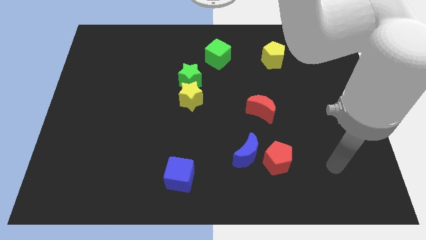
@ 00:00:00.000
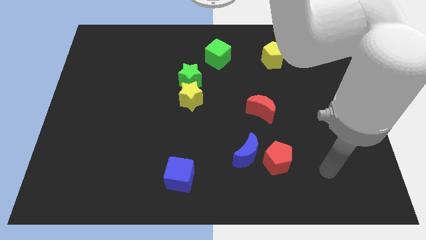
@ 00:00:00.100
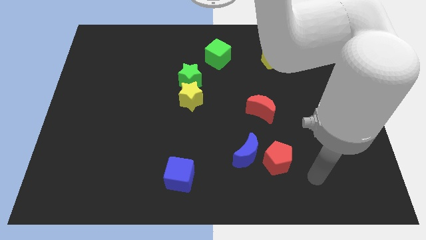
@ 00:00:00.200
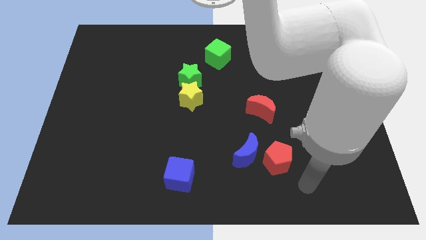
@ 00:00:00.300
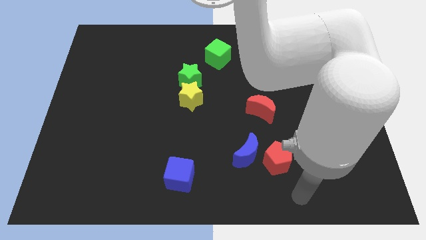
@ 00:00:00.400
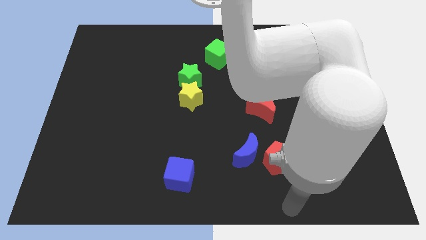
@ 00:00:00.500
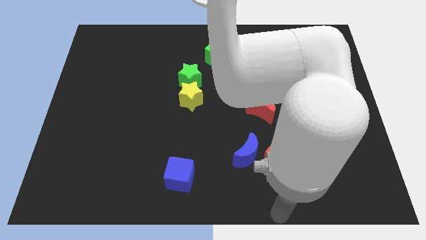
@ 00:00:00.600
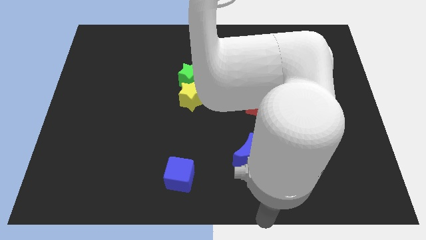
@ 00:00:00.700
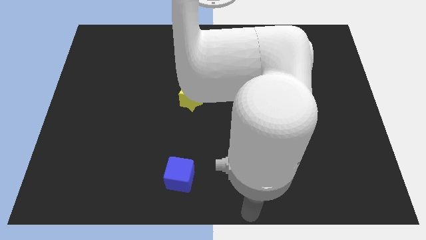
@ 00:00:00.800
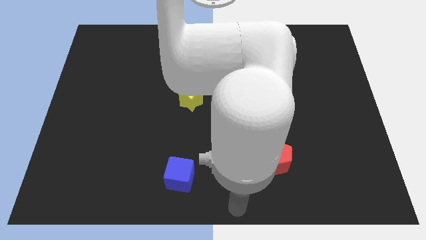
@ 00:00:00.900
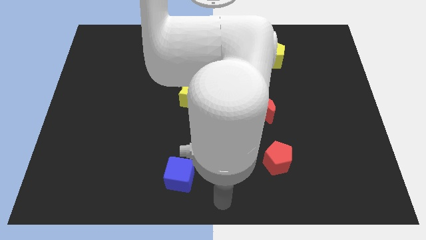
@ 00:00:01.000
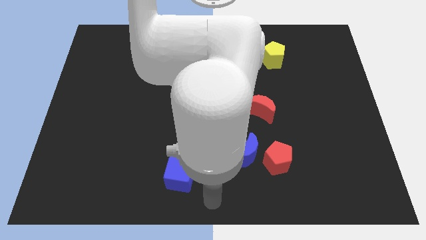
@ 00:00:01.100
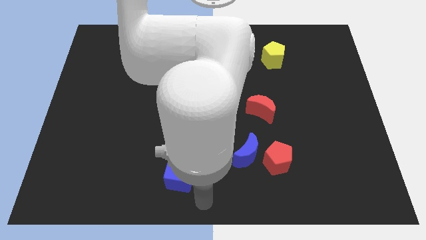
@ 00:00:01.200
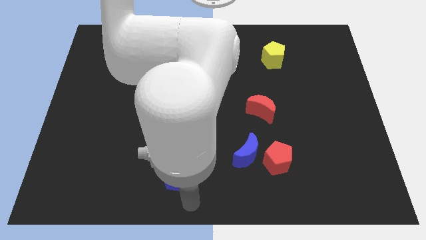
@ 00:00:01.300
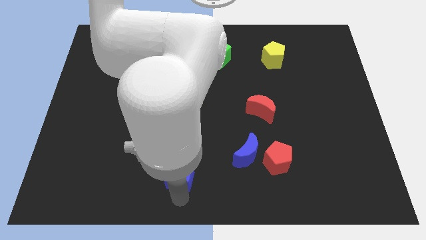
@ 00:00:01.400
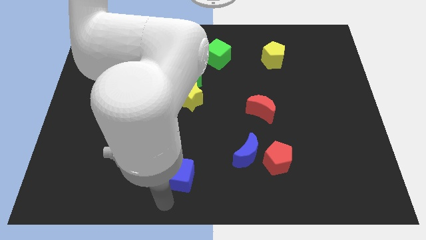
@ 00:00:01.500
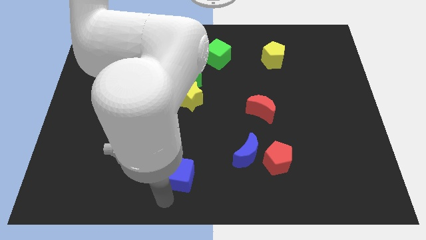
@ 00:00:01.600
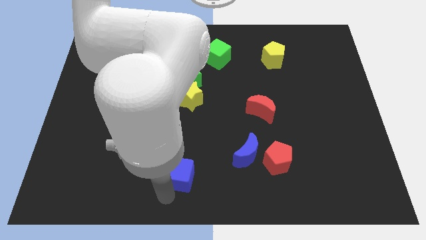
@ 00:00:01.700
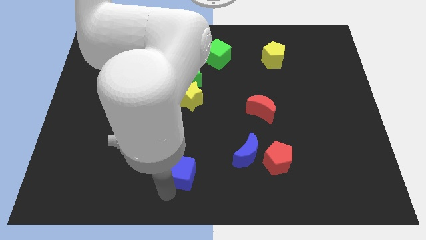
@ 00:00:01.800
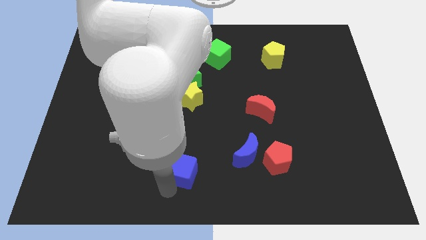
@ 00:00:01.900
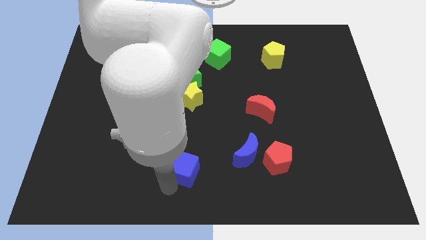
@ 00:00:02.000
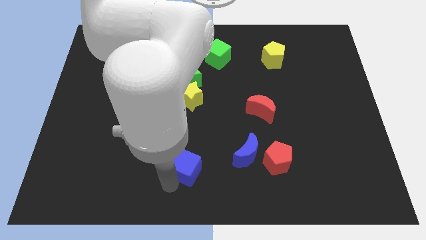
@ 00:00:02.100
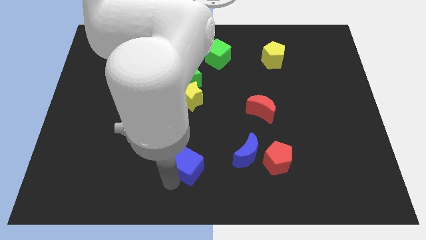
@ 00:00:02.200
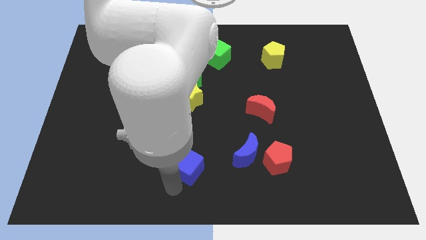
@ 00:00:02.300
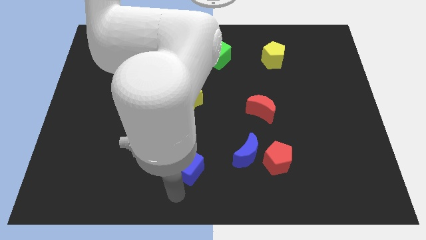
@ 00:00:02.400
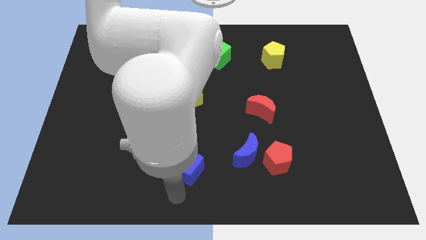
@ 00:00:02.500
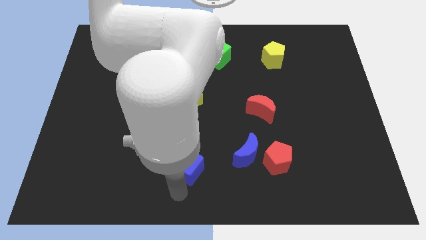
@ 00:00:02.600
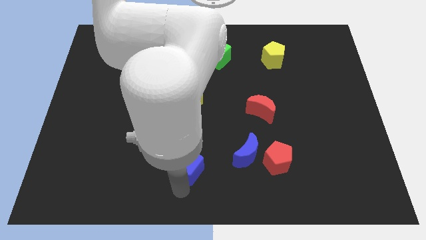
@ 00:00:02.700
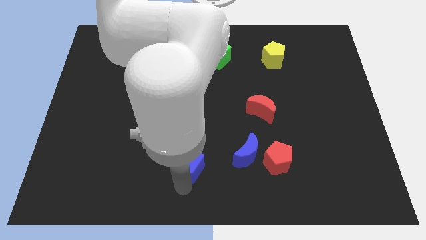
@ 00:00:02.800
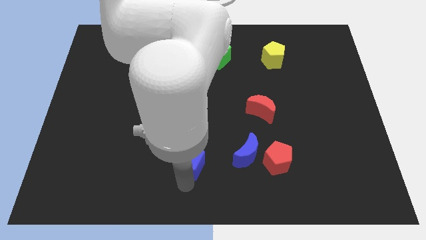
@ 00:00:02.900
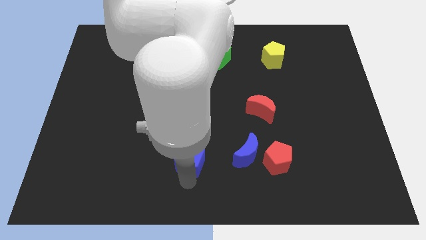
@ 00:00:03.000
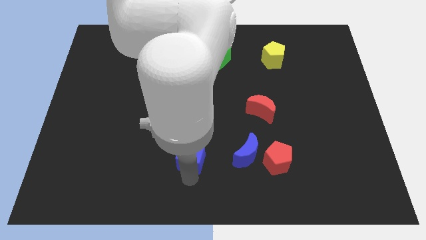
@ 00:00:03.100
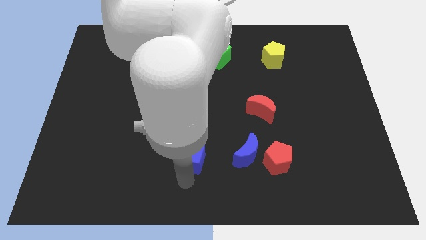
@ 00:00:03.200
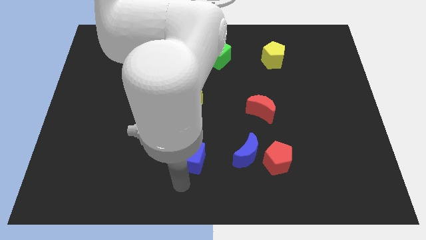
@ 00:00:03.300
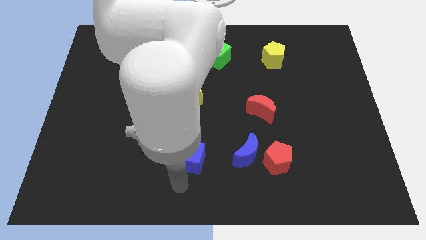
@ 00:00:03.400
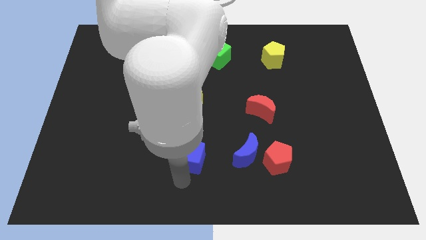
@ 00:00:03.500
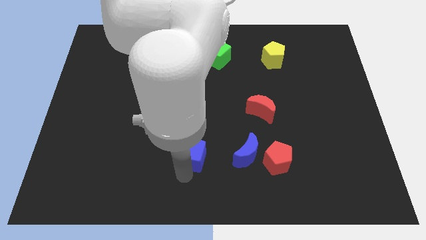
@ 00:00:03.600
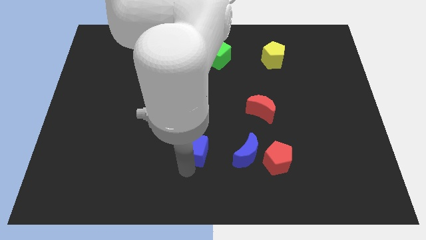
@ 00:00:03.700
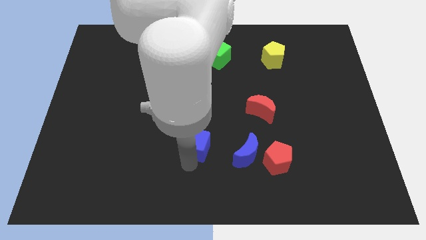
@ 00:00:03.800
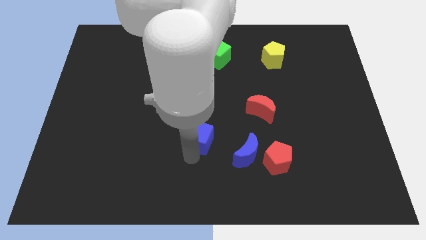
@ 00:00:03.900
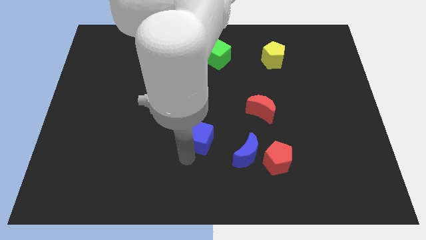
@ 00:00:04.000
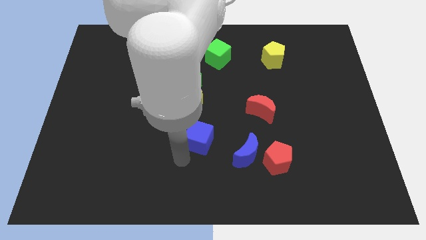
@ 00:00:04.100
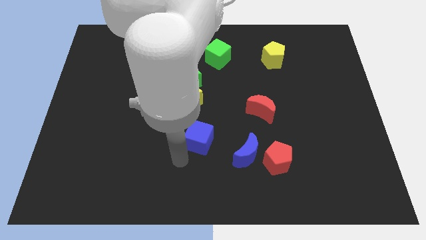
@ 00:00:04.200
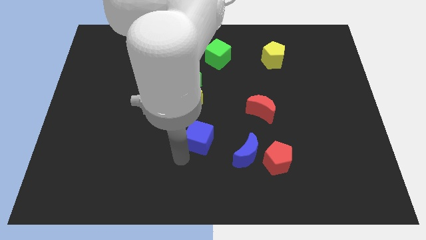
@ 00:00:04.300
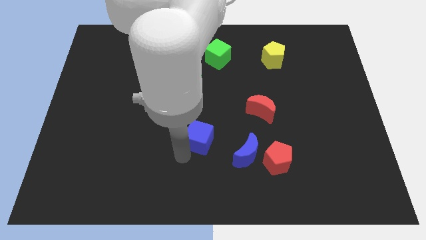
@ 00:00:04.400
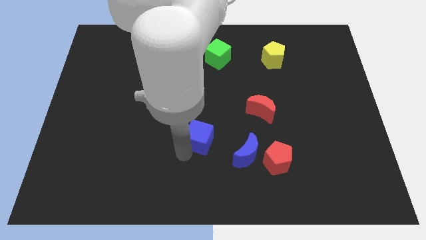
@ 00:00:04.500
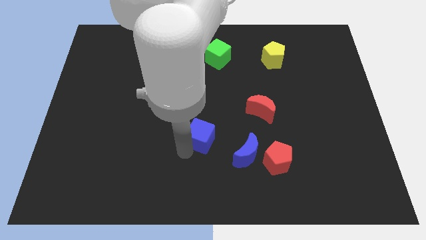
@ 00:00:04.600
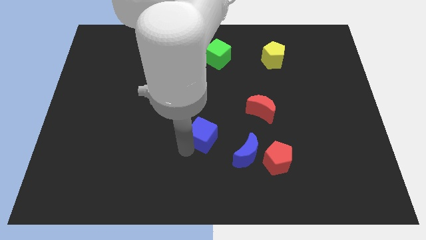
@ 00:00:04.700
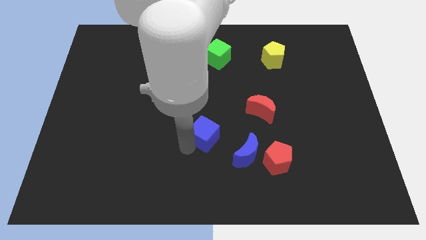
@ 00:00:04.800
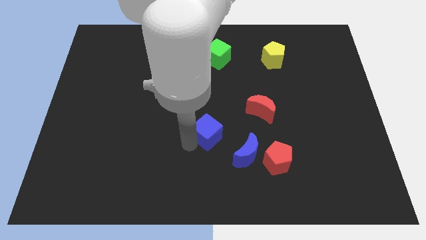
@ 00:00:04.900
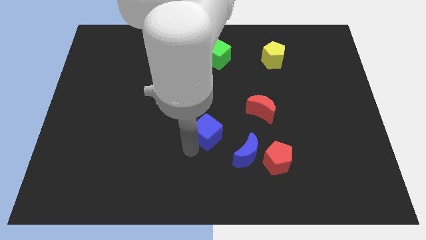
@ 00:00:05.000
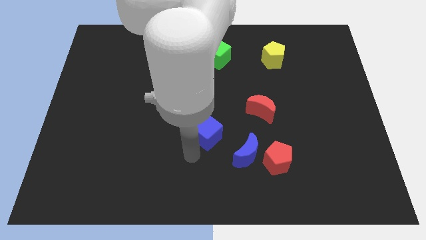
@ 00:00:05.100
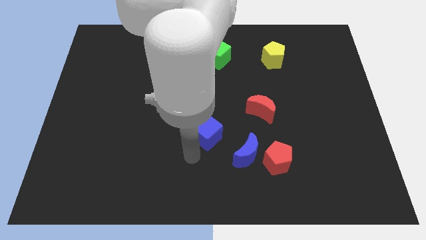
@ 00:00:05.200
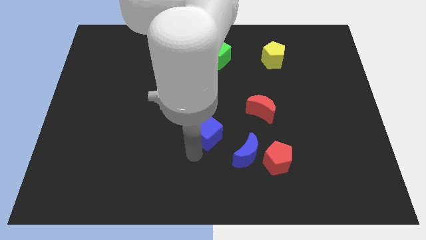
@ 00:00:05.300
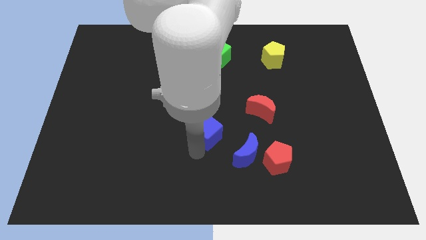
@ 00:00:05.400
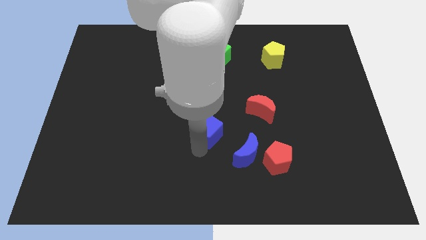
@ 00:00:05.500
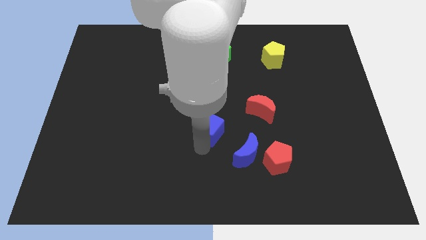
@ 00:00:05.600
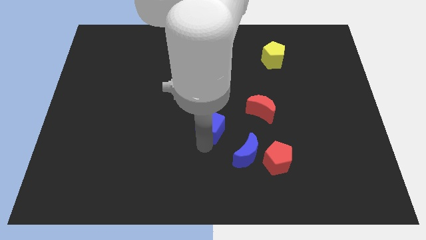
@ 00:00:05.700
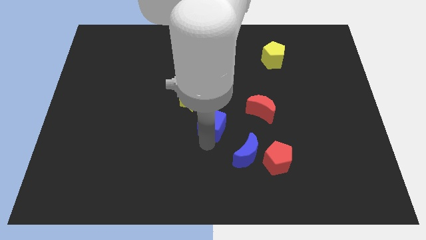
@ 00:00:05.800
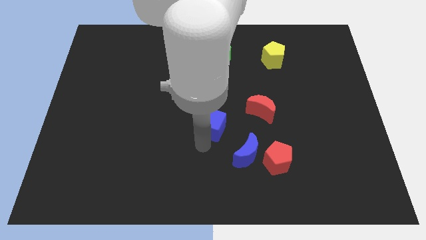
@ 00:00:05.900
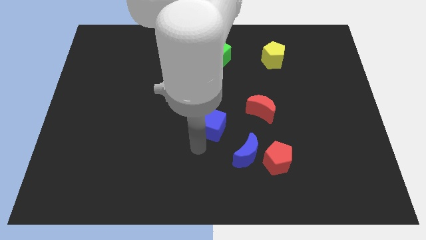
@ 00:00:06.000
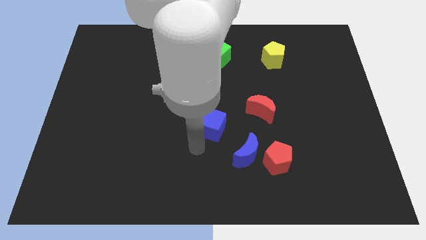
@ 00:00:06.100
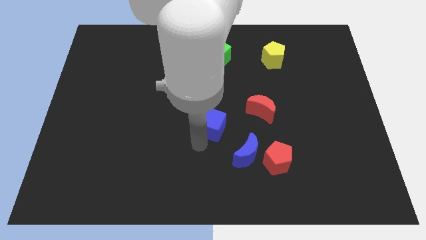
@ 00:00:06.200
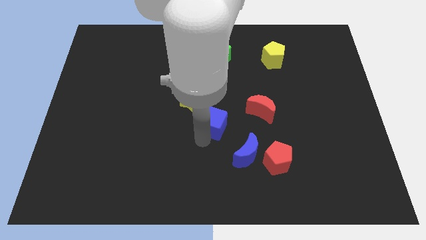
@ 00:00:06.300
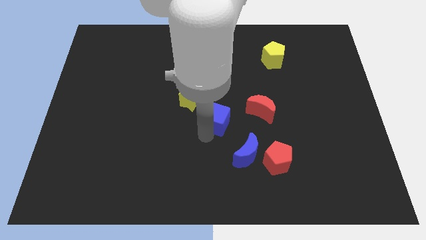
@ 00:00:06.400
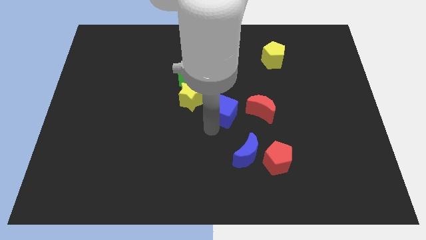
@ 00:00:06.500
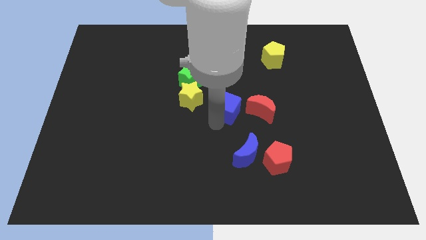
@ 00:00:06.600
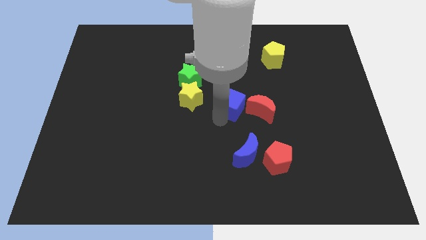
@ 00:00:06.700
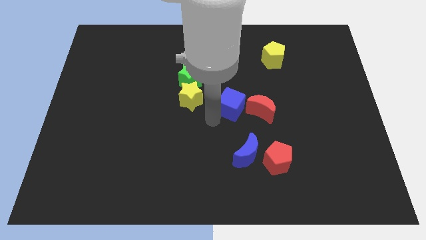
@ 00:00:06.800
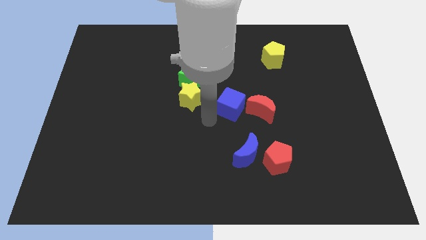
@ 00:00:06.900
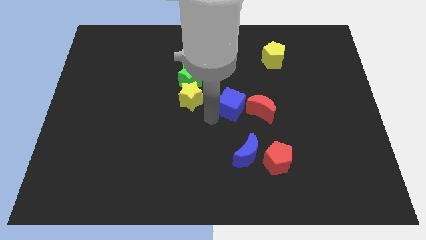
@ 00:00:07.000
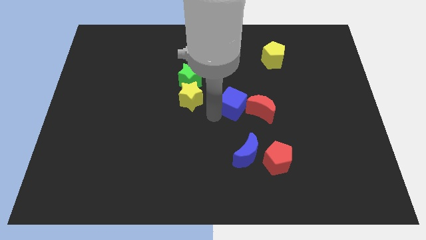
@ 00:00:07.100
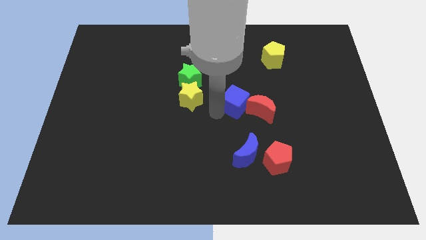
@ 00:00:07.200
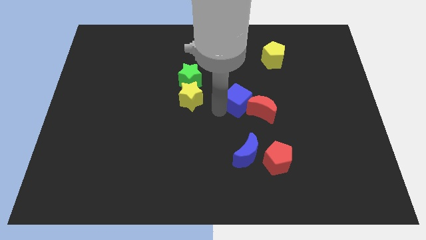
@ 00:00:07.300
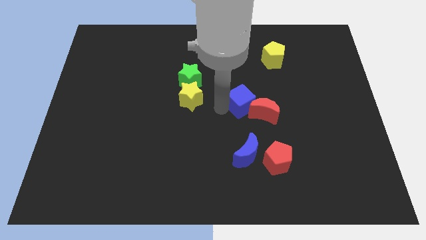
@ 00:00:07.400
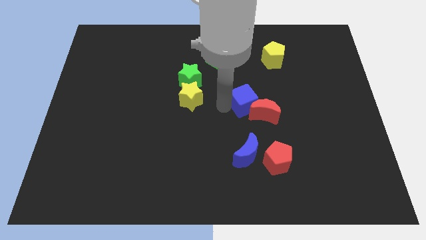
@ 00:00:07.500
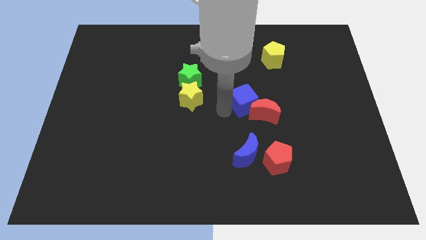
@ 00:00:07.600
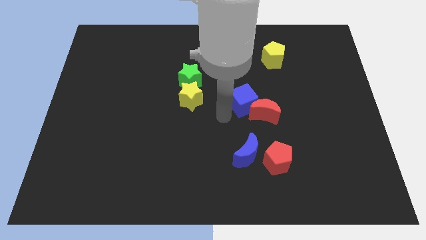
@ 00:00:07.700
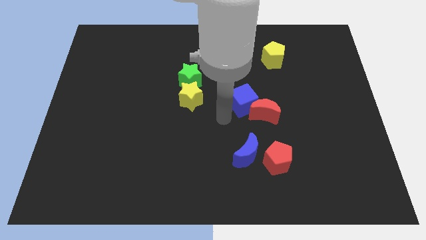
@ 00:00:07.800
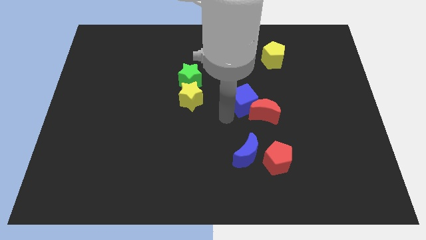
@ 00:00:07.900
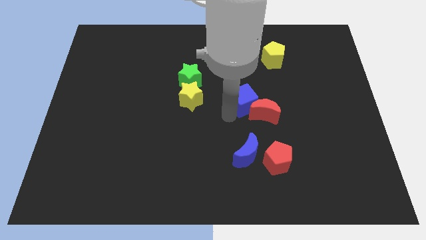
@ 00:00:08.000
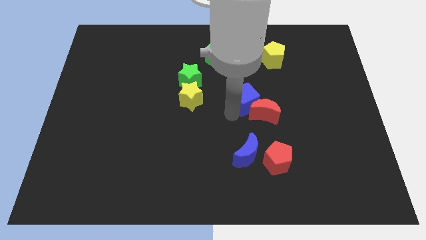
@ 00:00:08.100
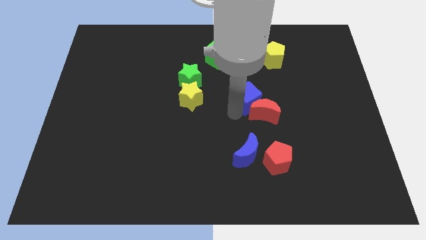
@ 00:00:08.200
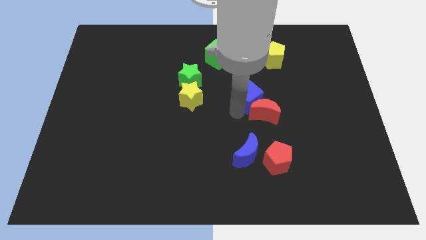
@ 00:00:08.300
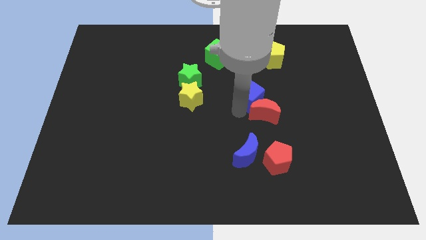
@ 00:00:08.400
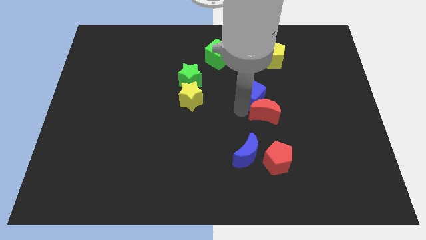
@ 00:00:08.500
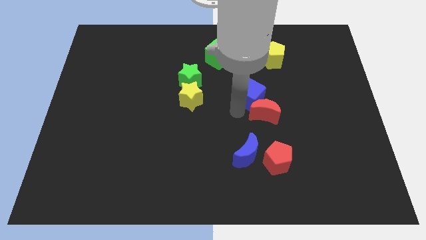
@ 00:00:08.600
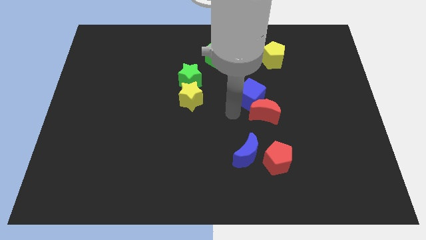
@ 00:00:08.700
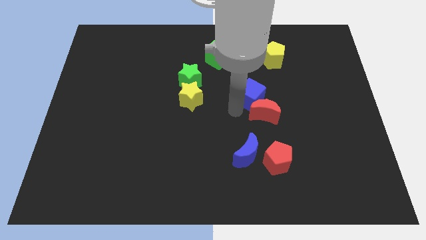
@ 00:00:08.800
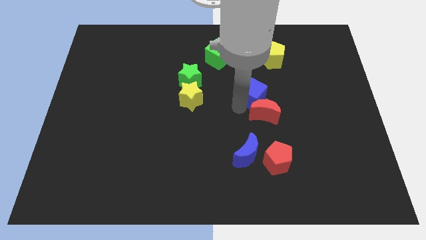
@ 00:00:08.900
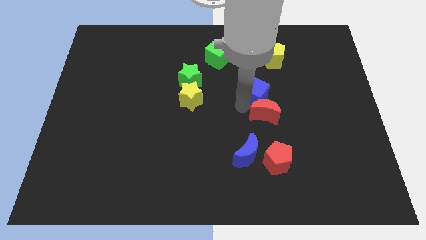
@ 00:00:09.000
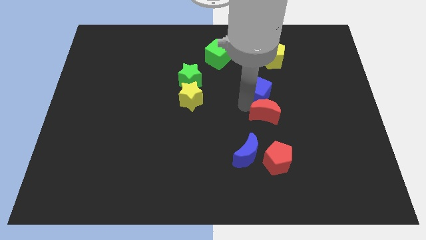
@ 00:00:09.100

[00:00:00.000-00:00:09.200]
put the blue cube diagonally up and to the right of the red moon
